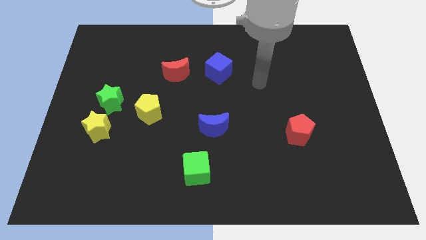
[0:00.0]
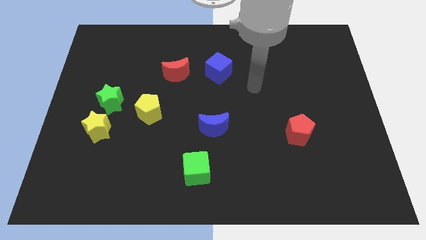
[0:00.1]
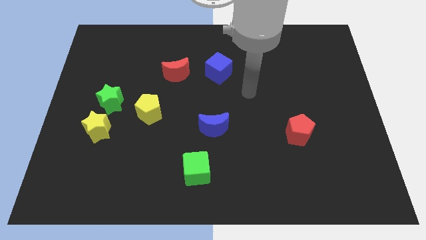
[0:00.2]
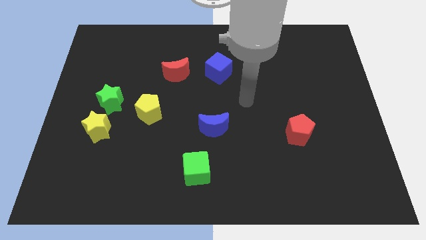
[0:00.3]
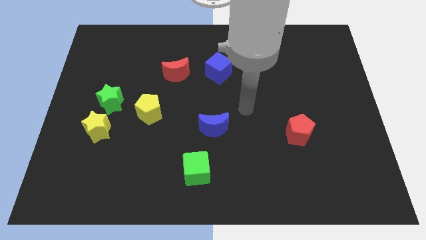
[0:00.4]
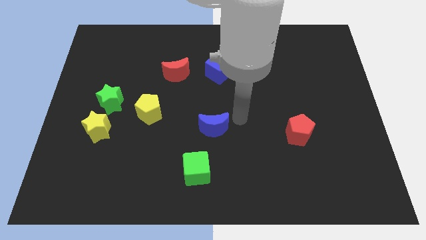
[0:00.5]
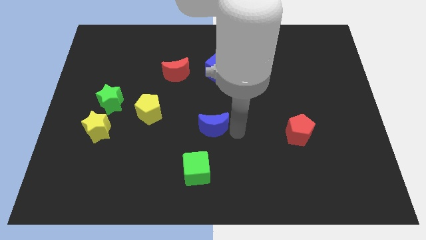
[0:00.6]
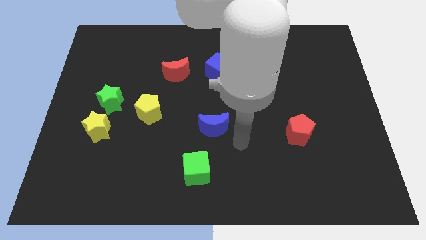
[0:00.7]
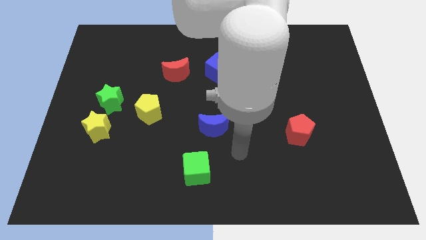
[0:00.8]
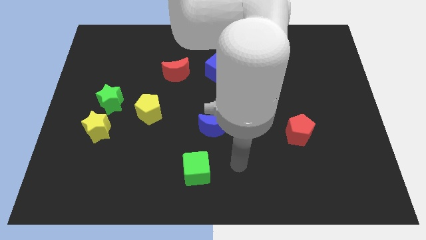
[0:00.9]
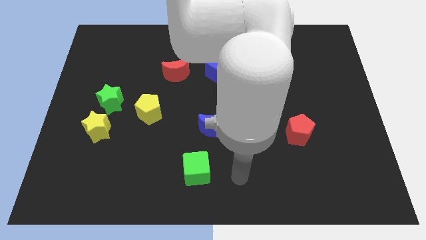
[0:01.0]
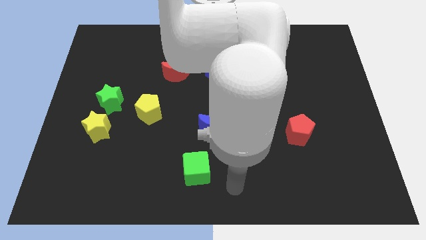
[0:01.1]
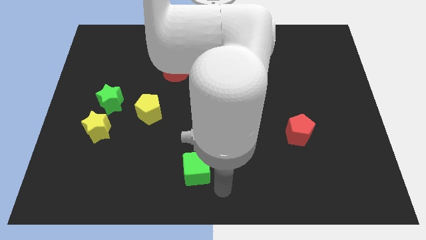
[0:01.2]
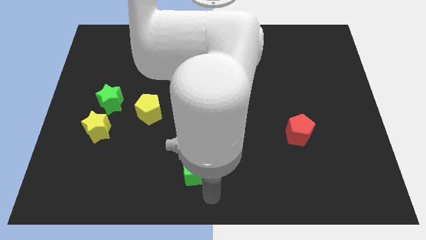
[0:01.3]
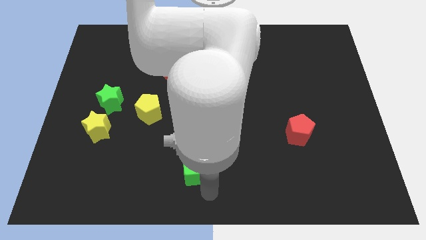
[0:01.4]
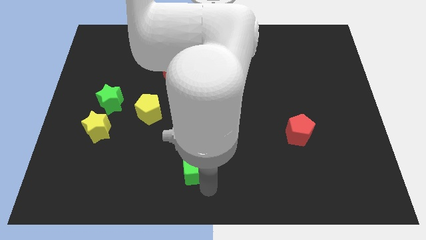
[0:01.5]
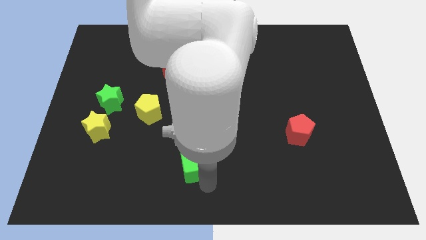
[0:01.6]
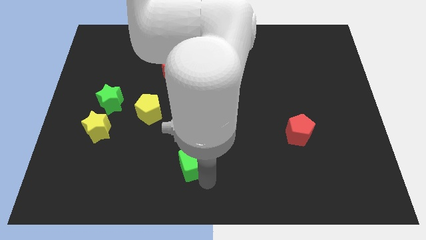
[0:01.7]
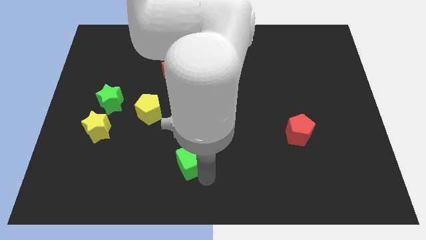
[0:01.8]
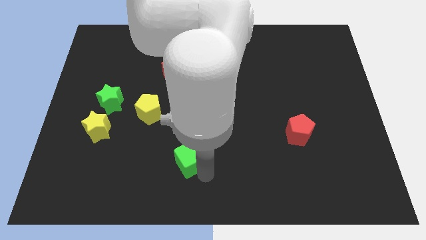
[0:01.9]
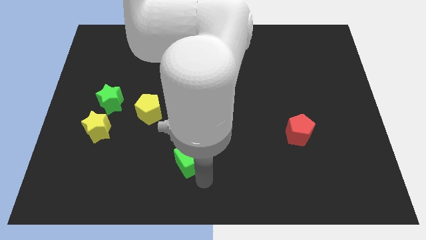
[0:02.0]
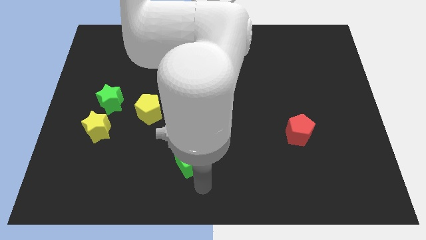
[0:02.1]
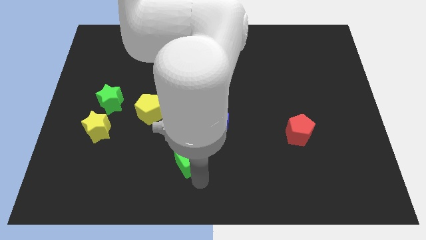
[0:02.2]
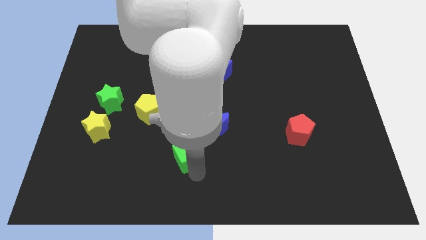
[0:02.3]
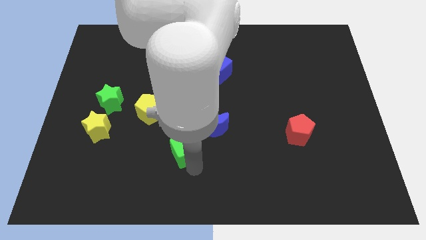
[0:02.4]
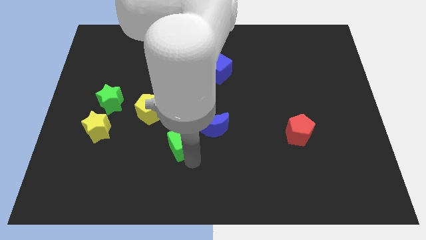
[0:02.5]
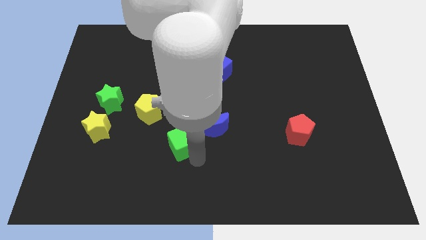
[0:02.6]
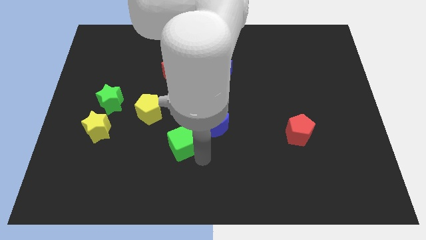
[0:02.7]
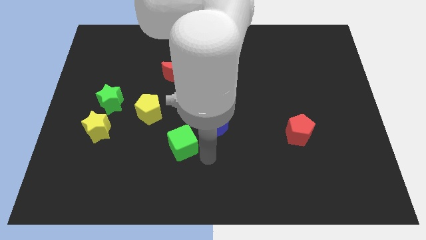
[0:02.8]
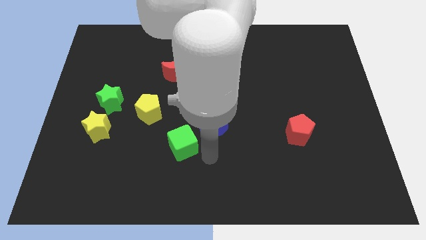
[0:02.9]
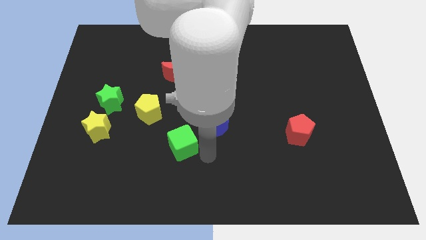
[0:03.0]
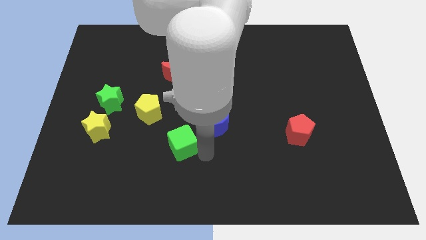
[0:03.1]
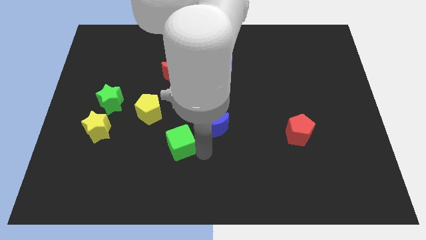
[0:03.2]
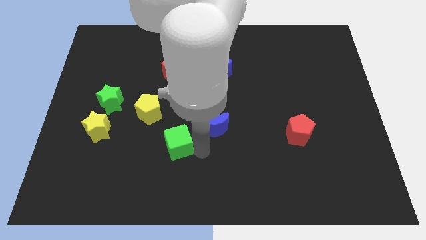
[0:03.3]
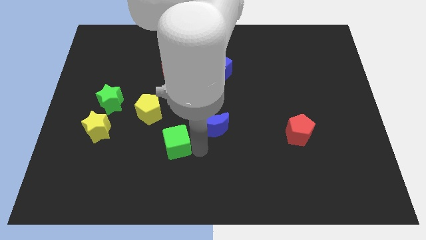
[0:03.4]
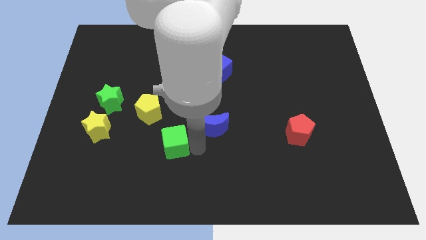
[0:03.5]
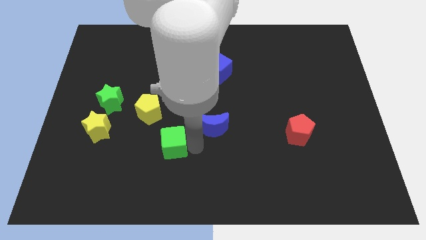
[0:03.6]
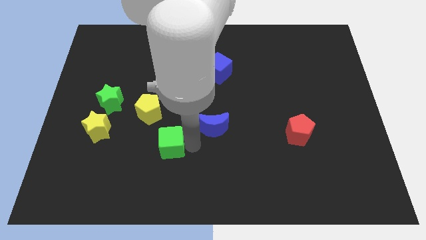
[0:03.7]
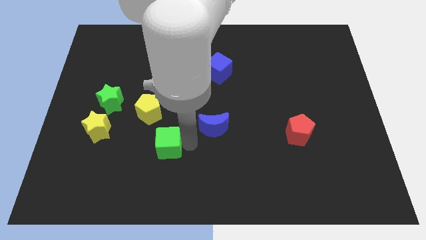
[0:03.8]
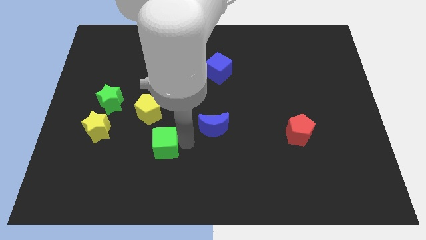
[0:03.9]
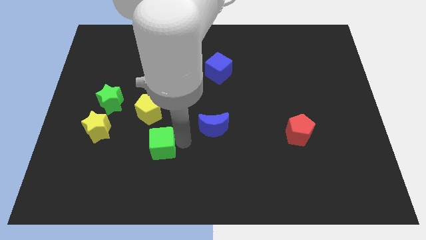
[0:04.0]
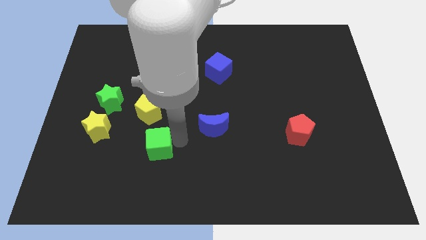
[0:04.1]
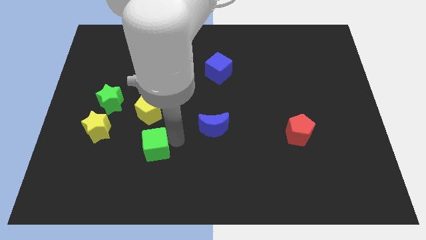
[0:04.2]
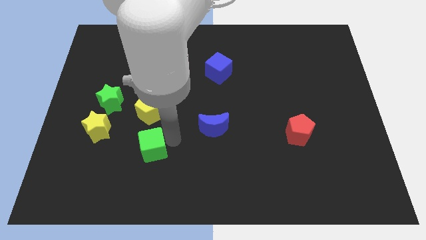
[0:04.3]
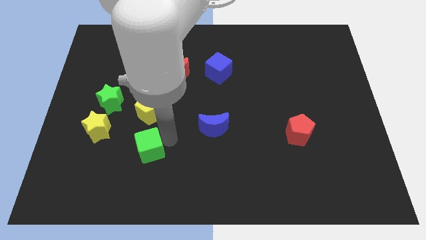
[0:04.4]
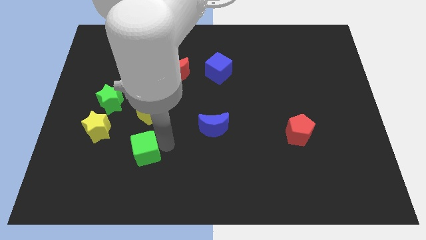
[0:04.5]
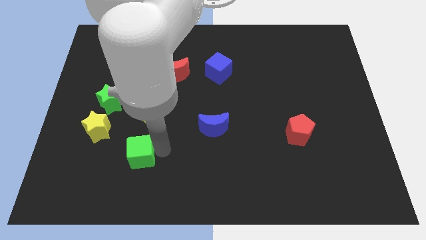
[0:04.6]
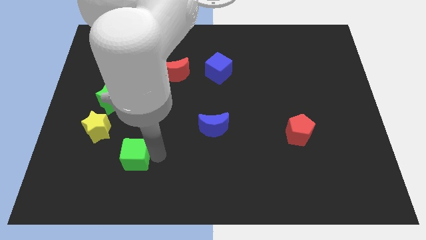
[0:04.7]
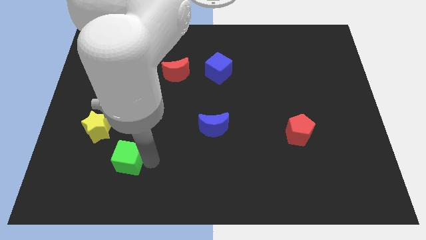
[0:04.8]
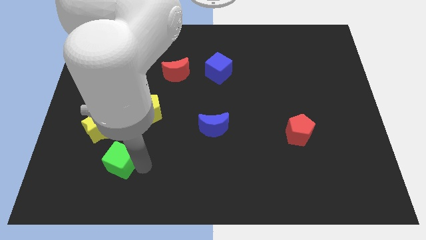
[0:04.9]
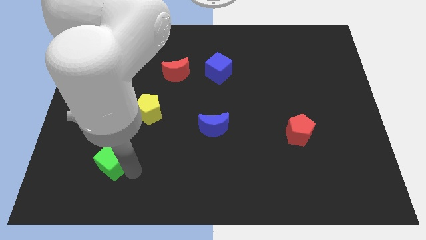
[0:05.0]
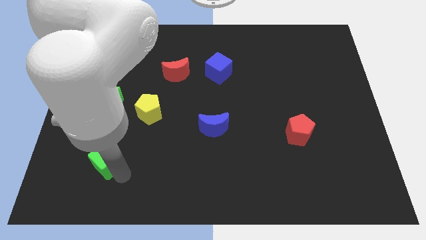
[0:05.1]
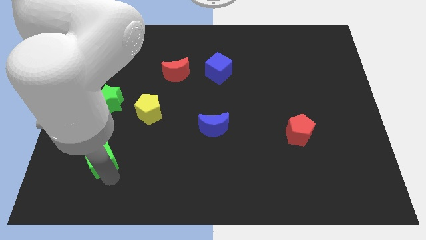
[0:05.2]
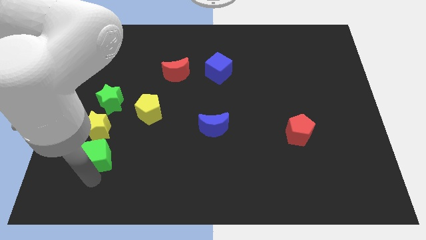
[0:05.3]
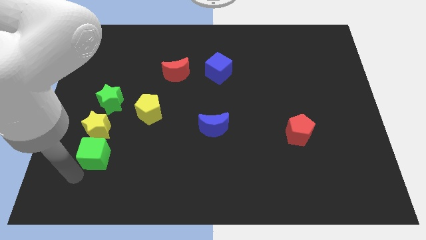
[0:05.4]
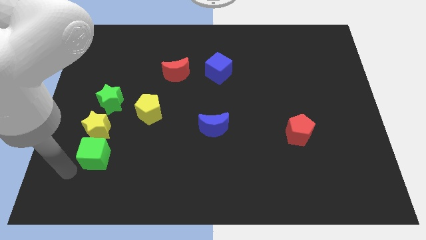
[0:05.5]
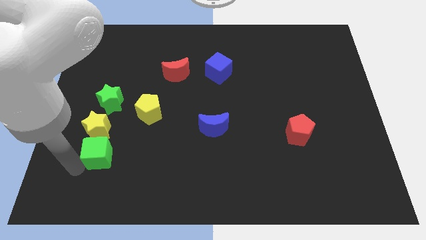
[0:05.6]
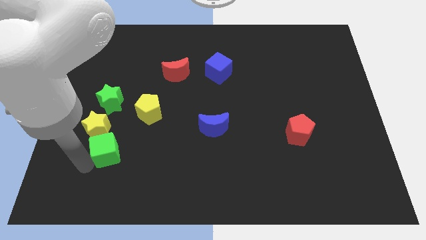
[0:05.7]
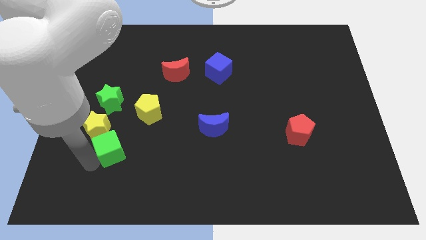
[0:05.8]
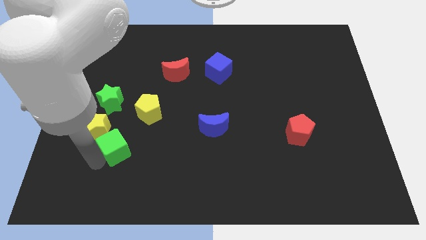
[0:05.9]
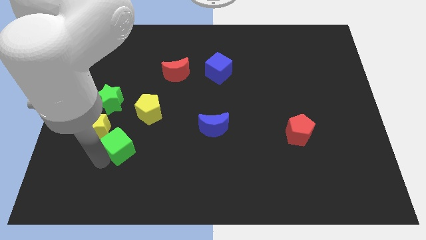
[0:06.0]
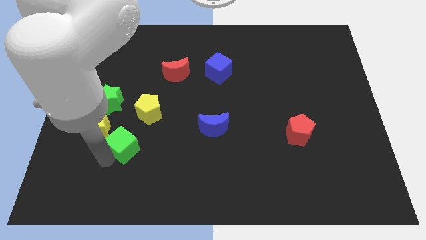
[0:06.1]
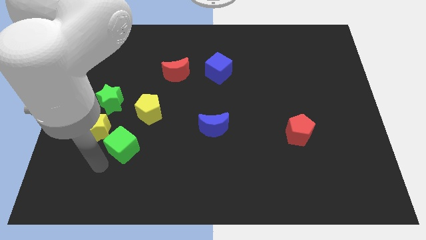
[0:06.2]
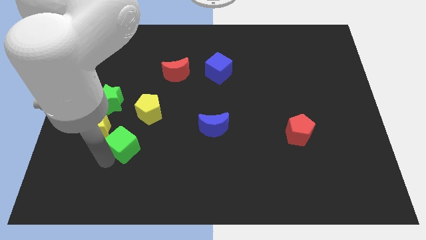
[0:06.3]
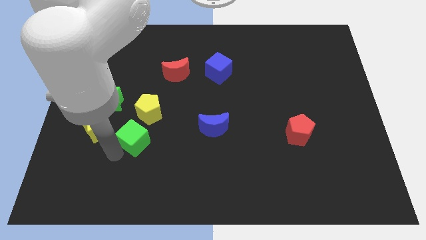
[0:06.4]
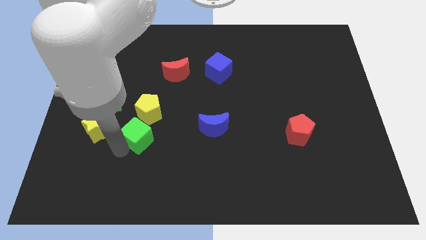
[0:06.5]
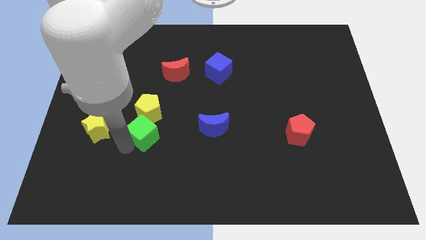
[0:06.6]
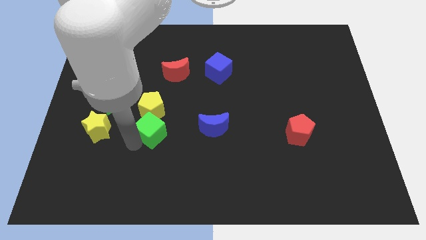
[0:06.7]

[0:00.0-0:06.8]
push the green cube towards the yellow pentagon

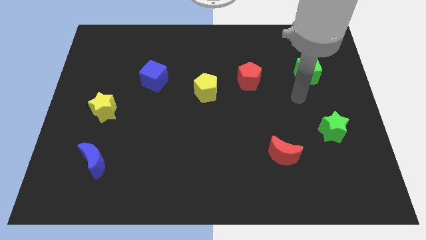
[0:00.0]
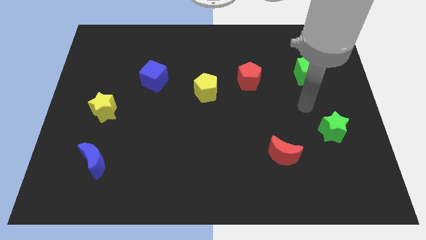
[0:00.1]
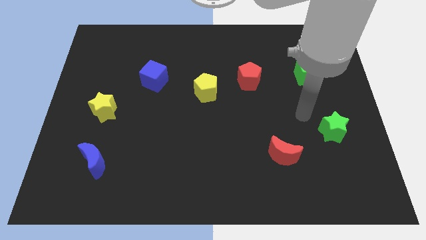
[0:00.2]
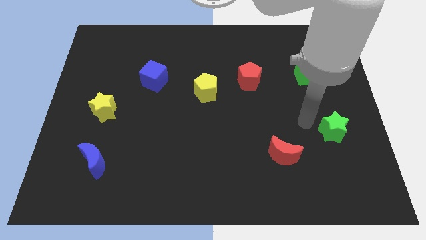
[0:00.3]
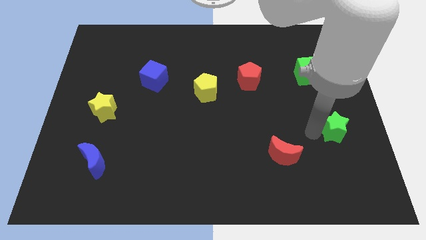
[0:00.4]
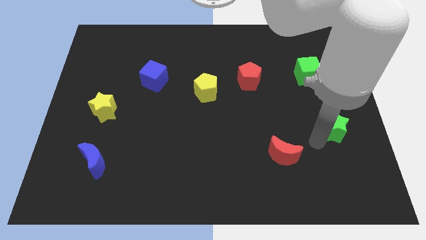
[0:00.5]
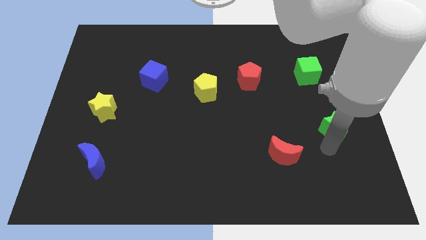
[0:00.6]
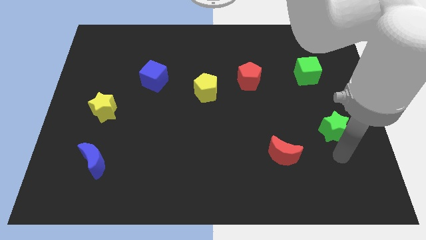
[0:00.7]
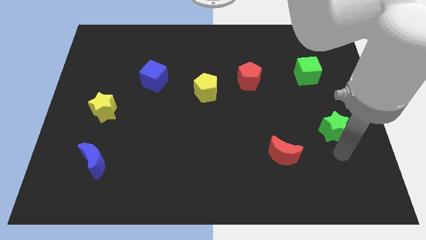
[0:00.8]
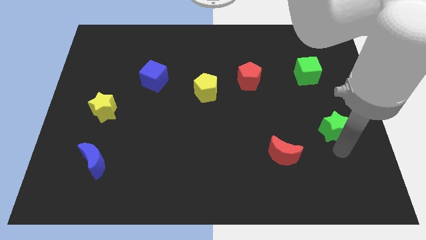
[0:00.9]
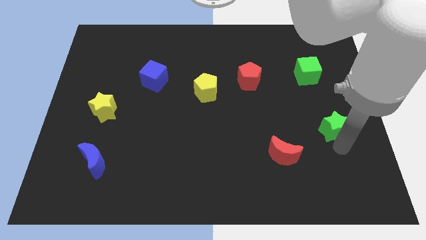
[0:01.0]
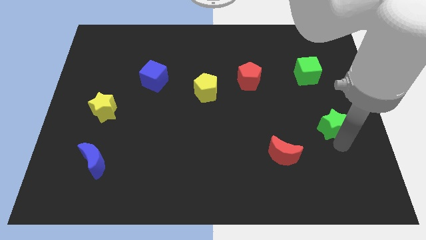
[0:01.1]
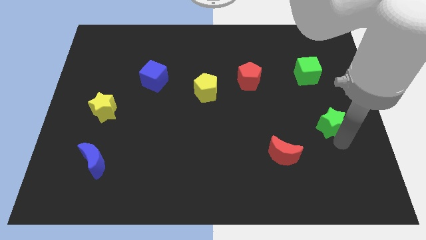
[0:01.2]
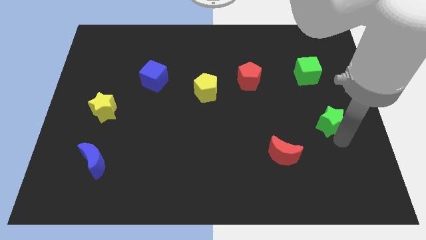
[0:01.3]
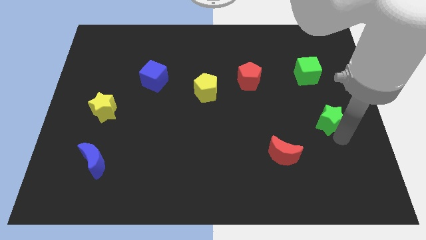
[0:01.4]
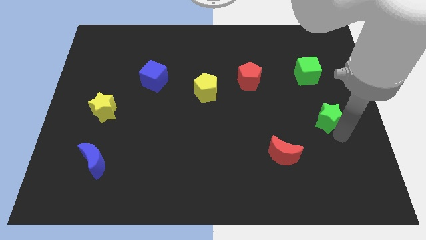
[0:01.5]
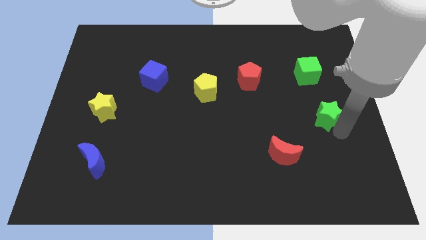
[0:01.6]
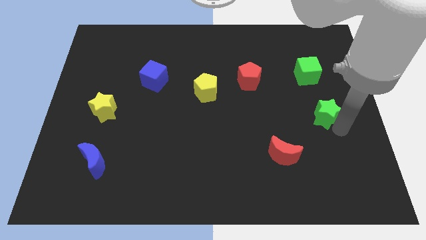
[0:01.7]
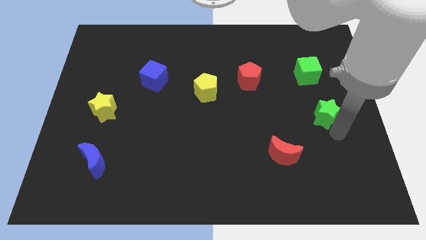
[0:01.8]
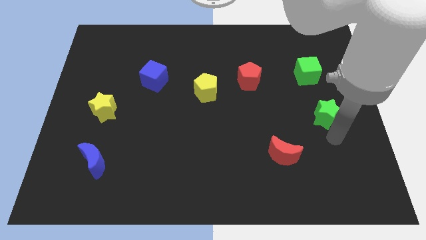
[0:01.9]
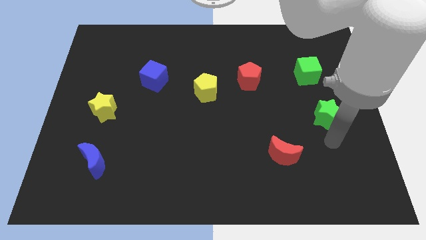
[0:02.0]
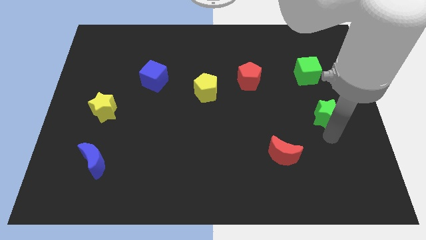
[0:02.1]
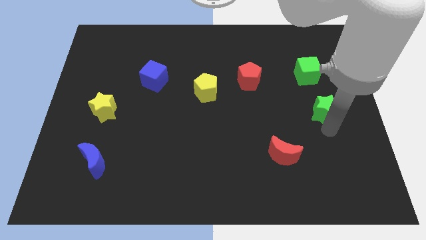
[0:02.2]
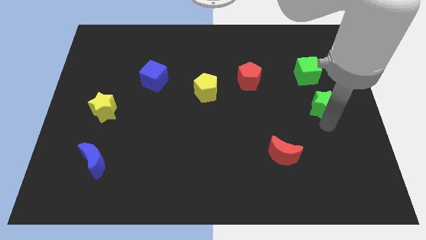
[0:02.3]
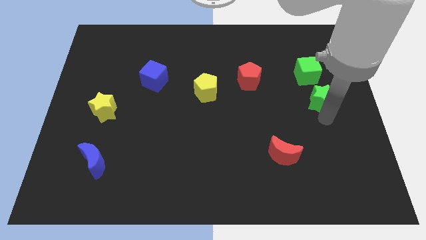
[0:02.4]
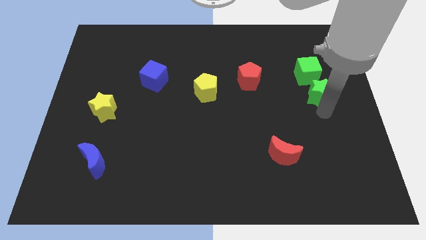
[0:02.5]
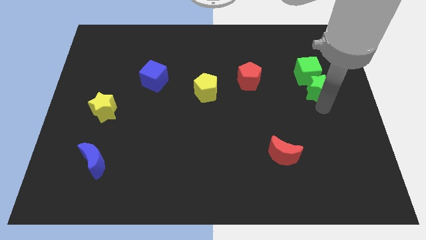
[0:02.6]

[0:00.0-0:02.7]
push the green star next to the green cube
